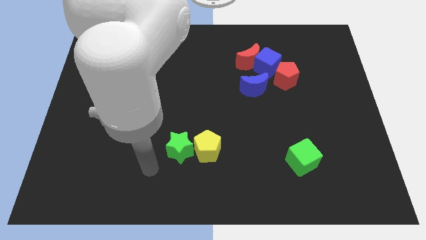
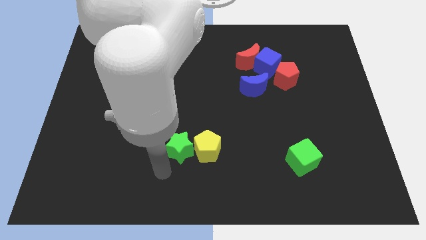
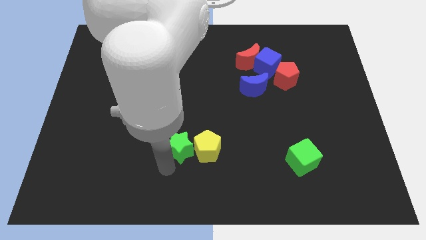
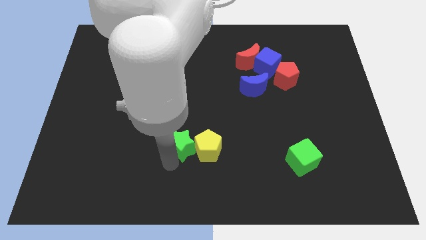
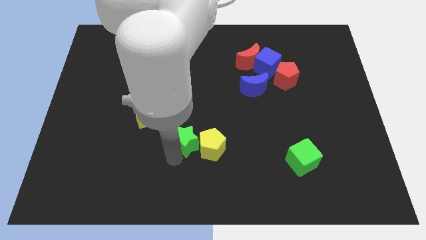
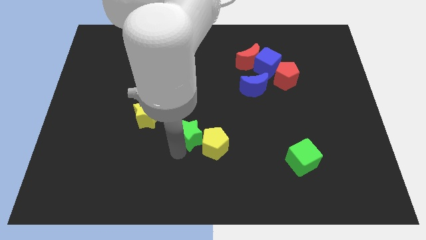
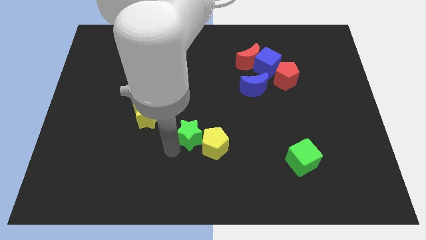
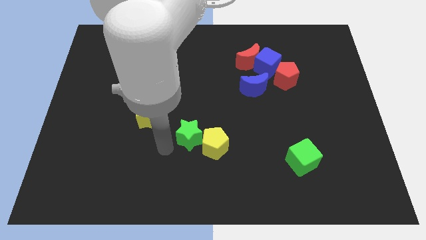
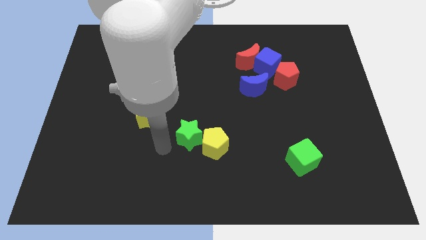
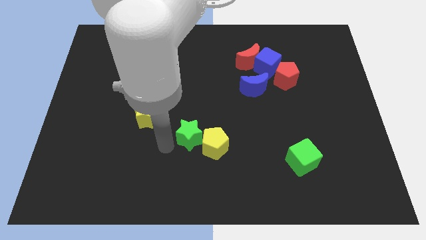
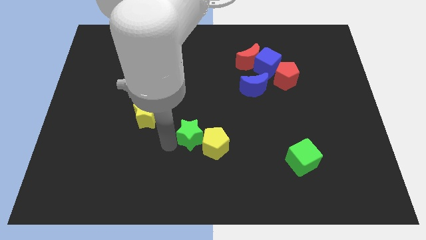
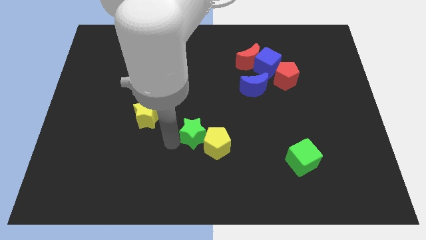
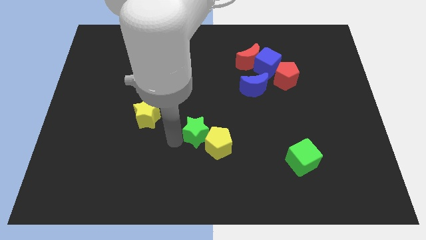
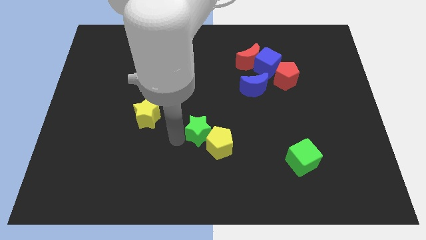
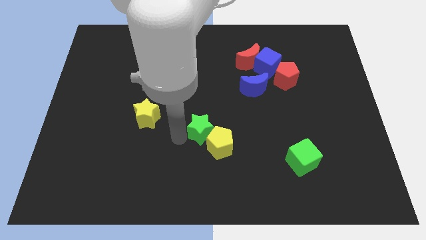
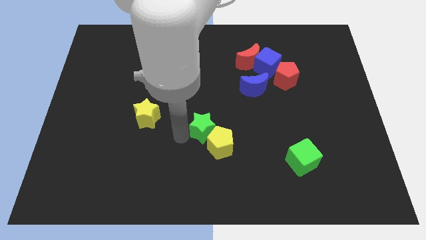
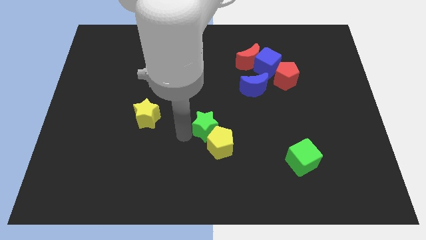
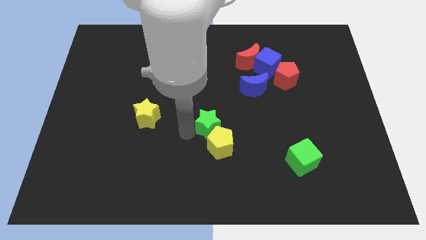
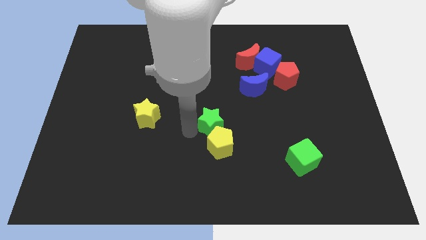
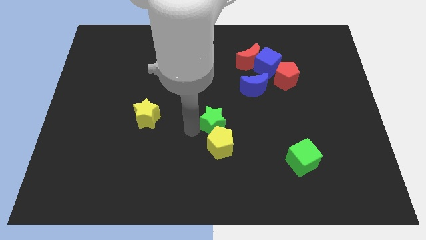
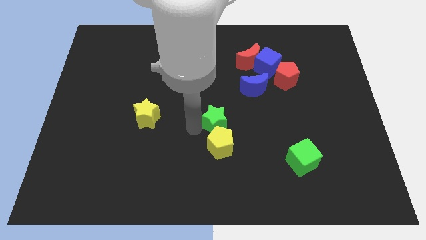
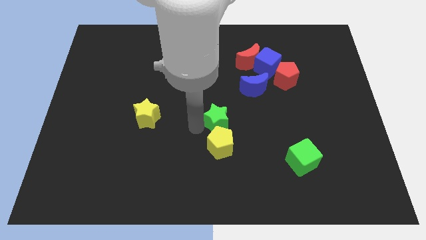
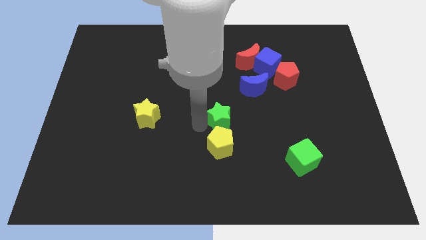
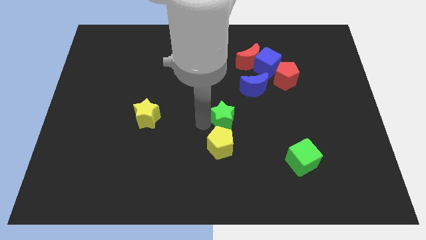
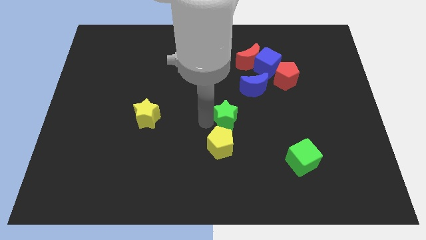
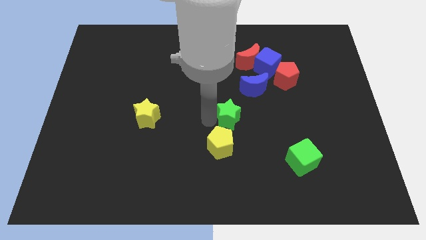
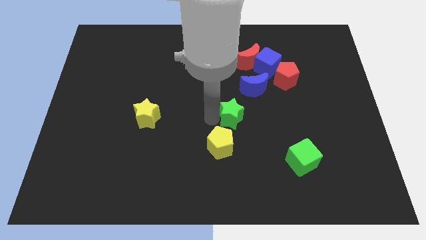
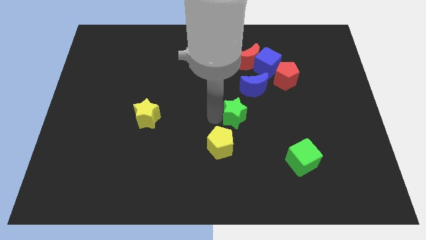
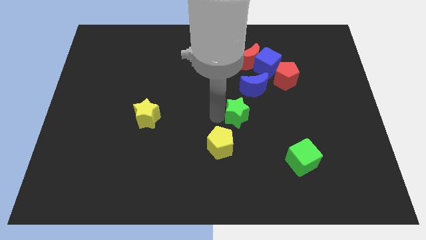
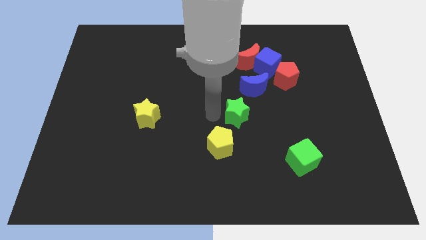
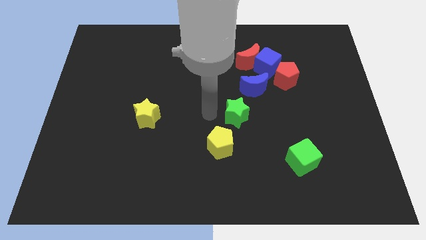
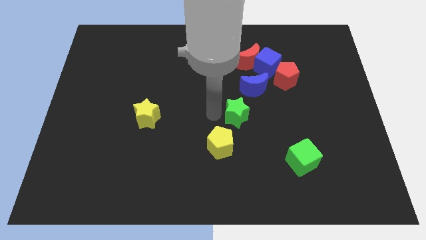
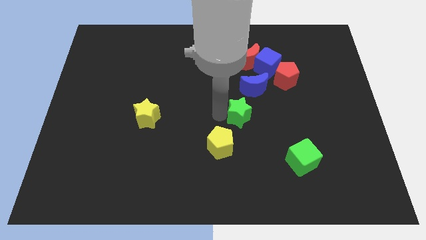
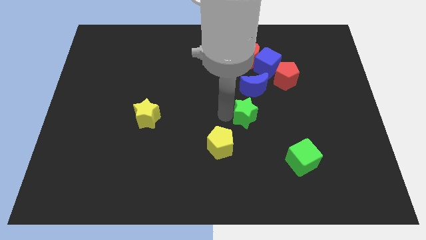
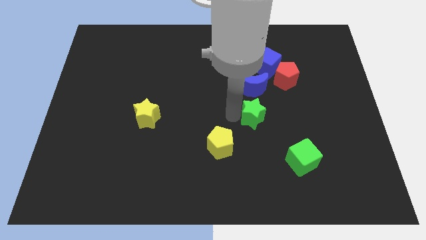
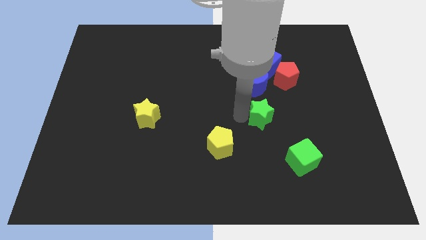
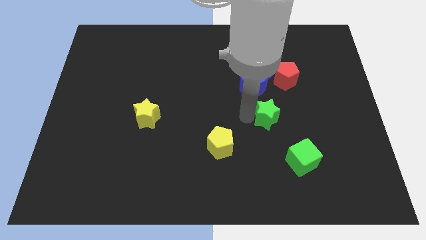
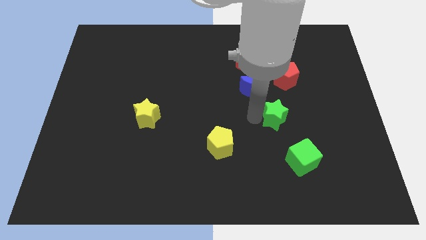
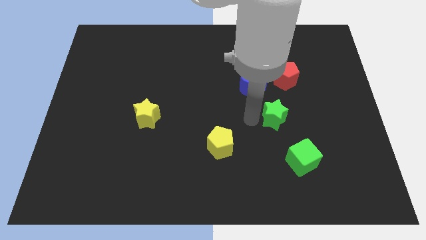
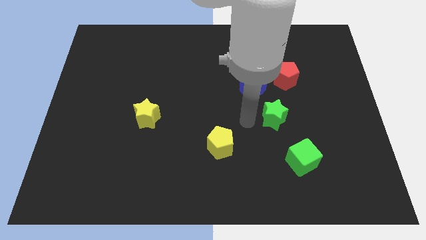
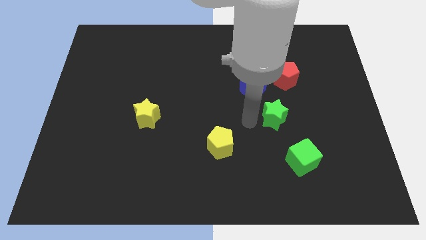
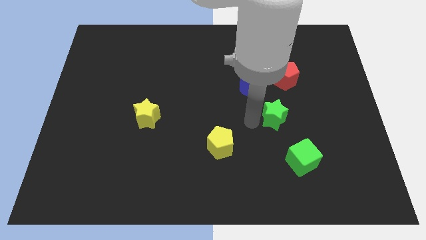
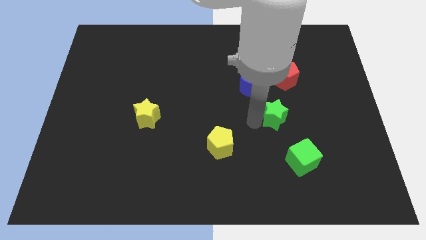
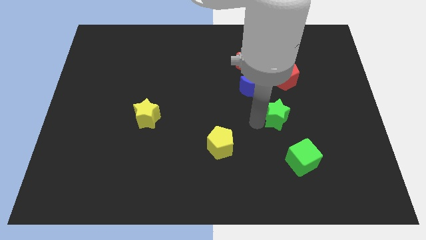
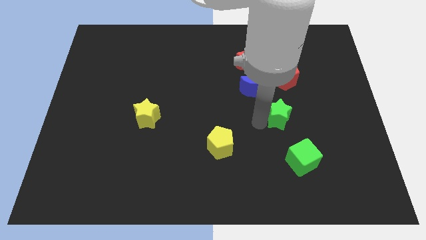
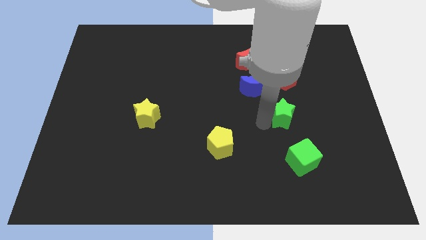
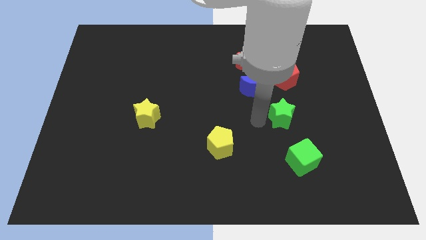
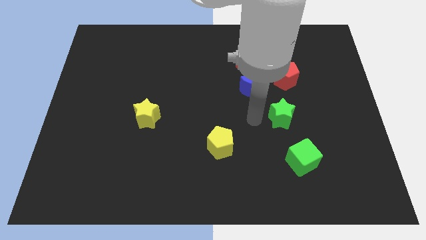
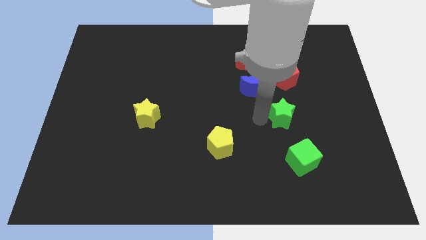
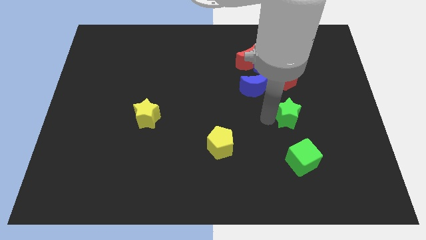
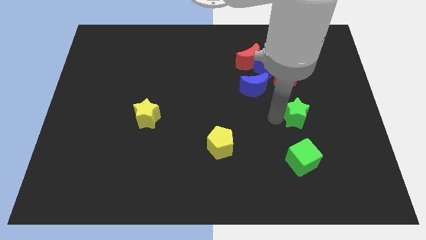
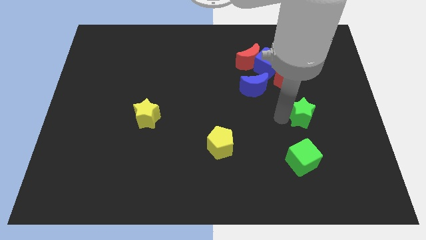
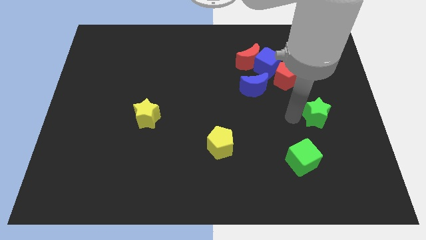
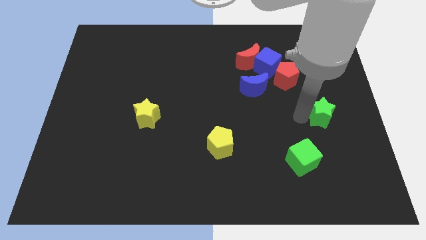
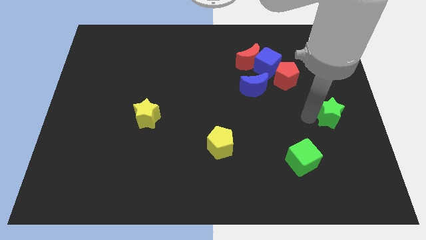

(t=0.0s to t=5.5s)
slide the green star to the right side

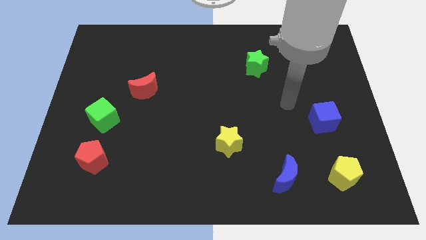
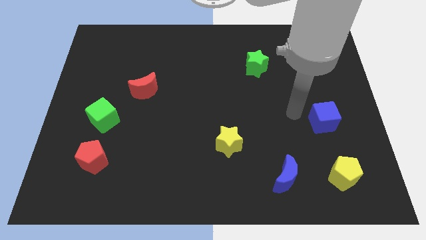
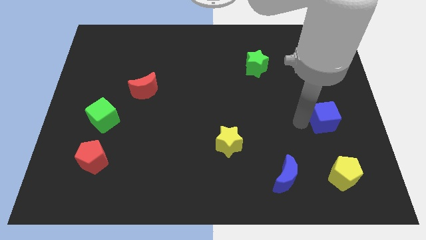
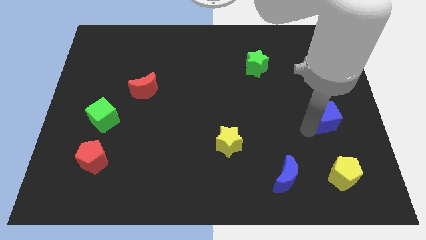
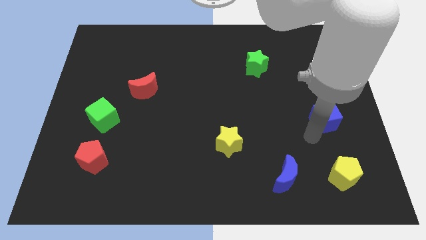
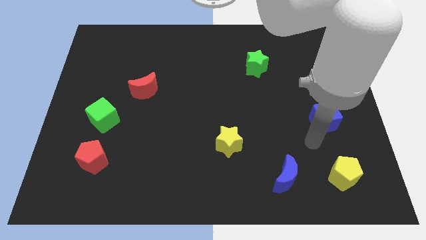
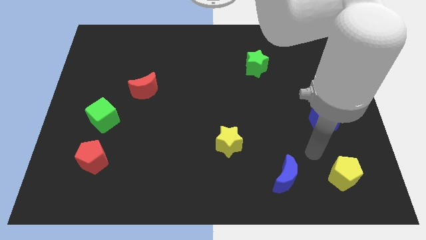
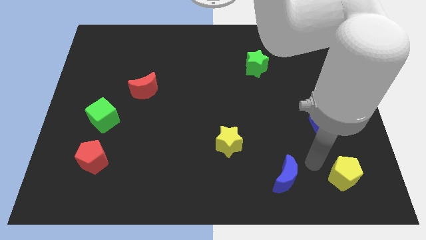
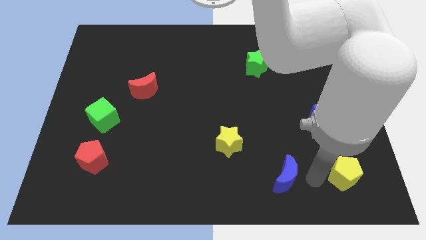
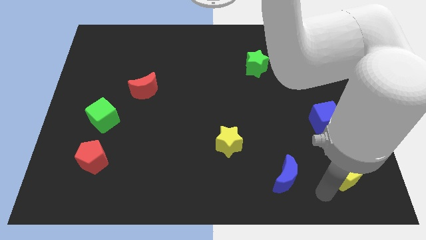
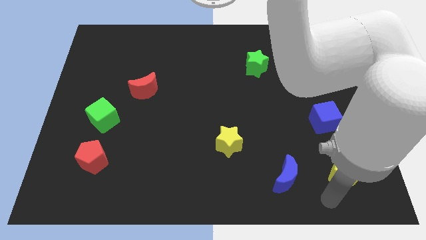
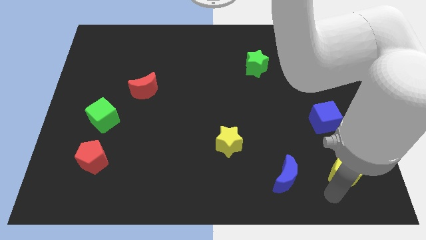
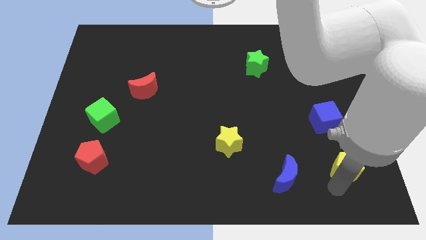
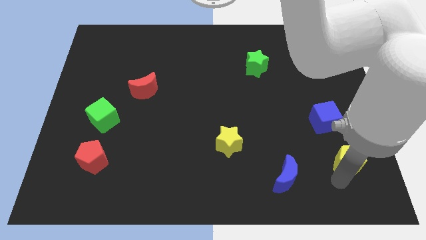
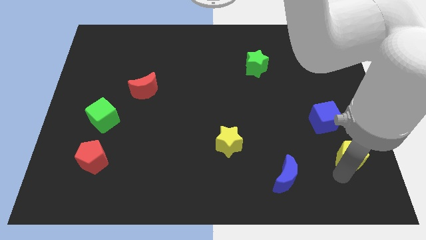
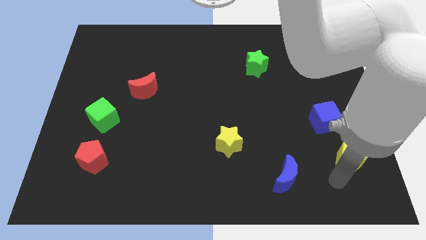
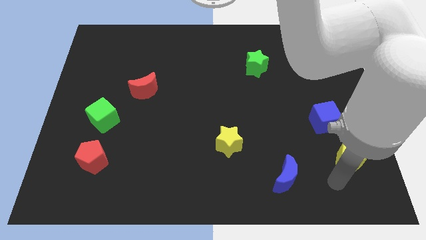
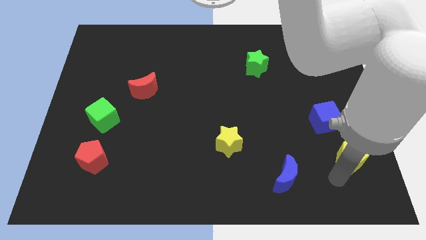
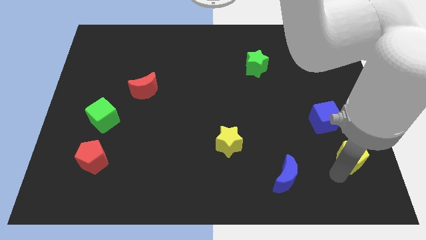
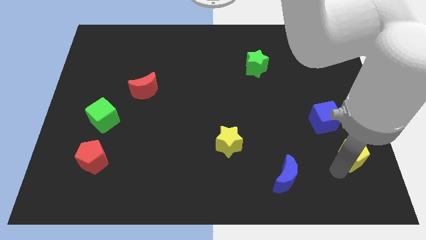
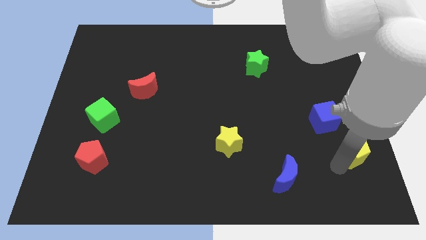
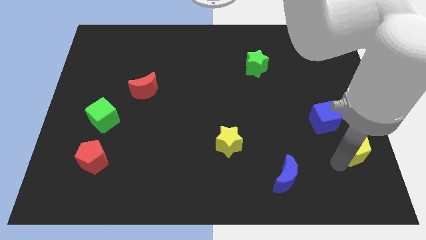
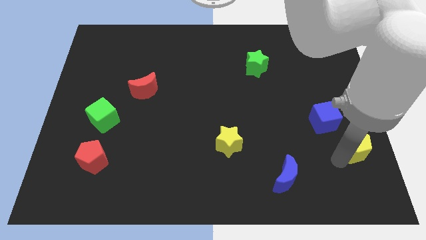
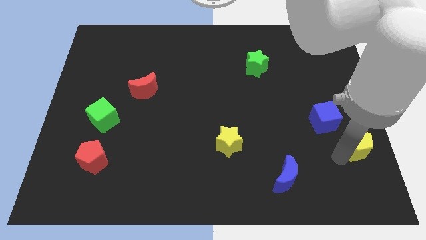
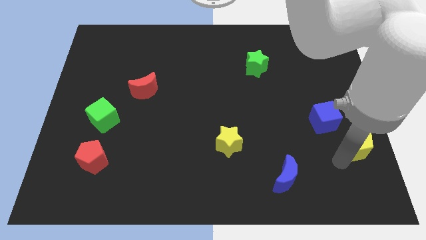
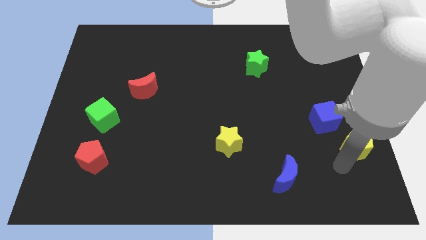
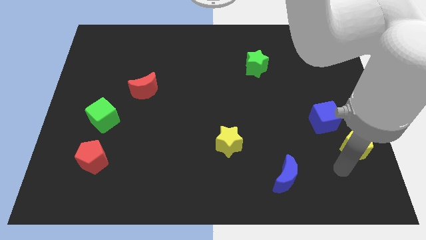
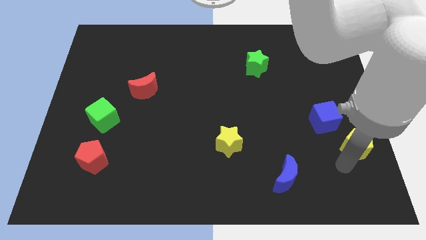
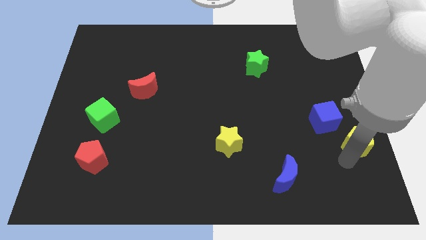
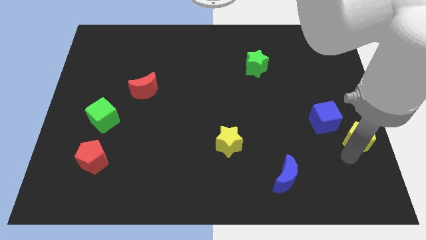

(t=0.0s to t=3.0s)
slide the yellow pentagon to the center right
